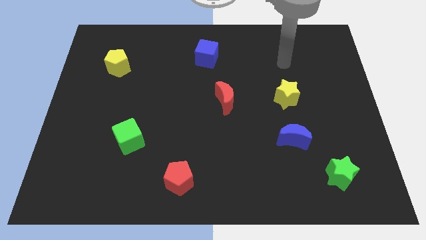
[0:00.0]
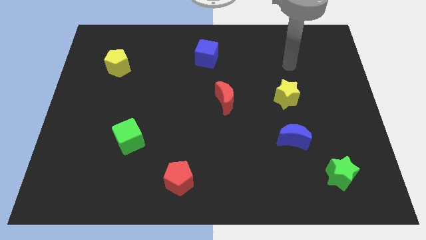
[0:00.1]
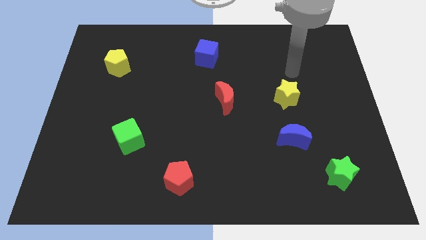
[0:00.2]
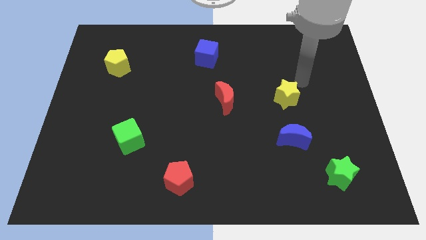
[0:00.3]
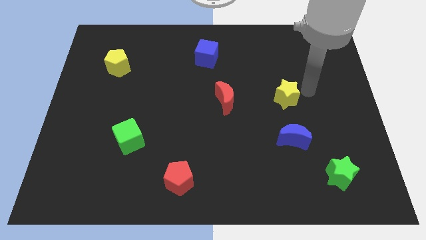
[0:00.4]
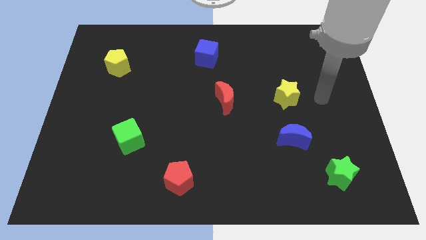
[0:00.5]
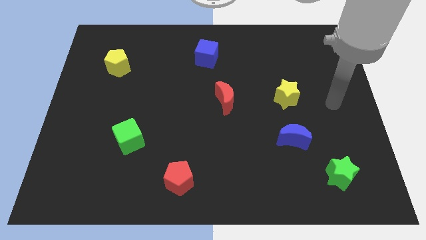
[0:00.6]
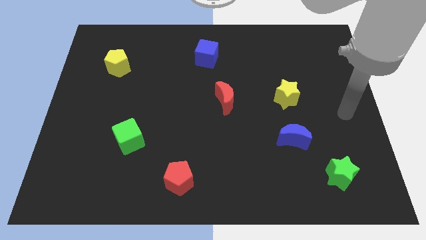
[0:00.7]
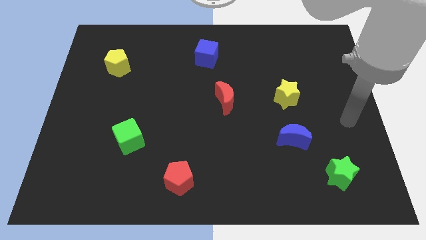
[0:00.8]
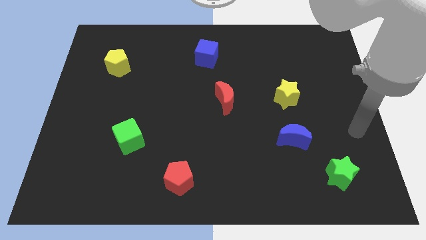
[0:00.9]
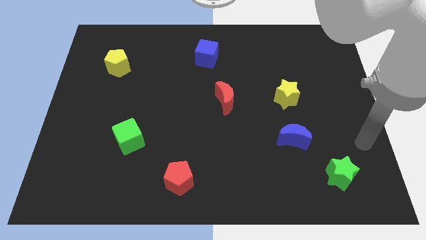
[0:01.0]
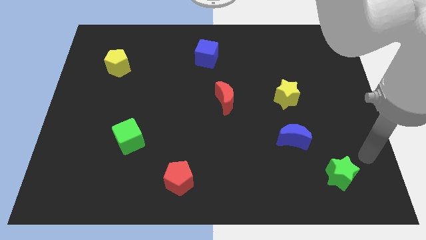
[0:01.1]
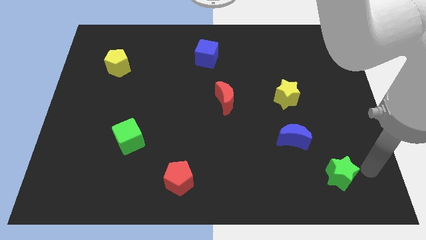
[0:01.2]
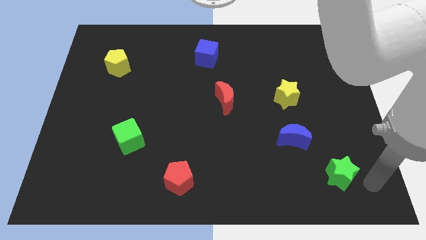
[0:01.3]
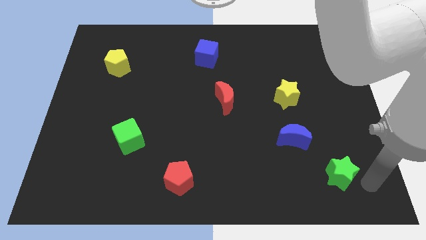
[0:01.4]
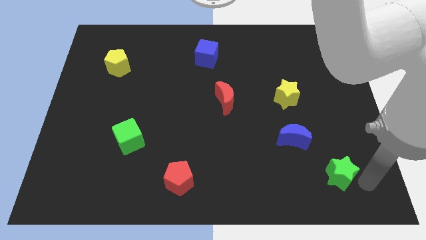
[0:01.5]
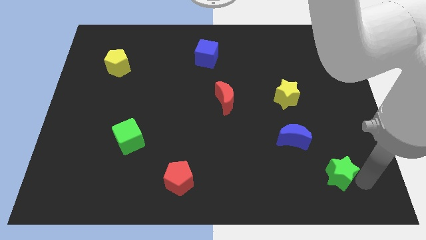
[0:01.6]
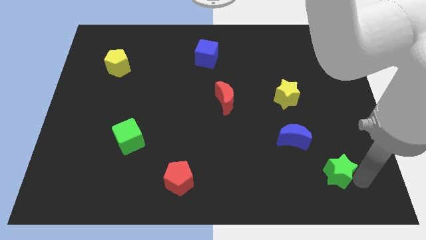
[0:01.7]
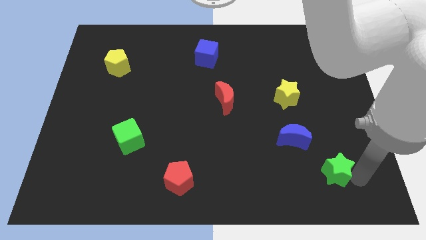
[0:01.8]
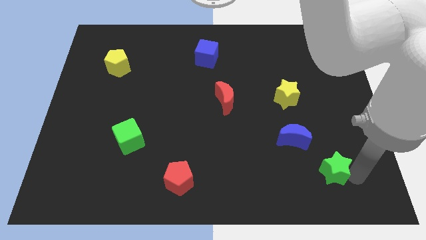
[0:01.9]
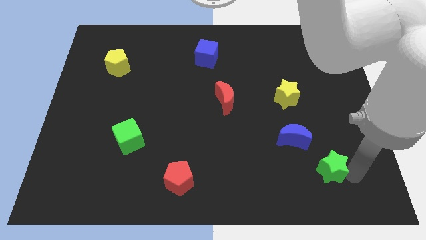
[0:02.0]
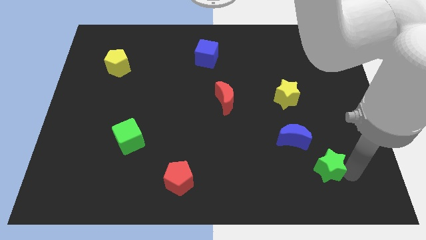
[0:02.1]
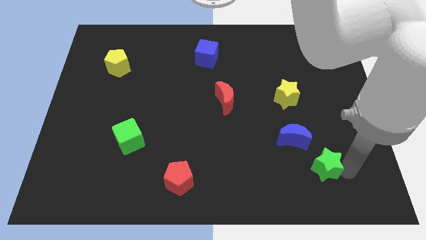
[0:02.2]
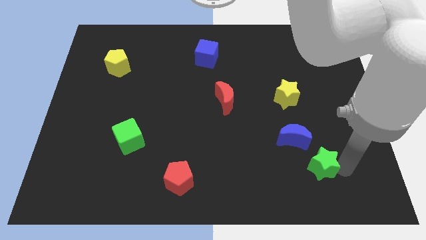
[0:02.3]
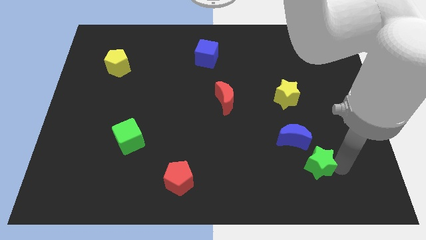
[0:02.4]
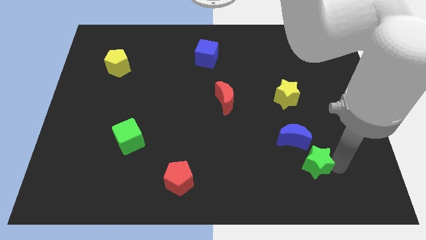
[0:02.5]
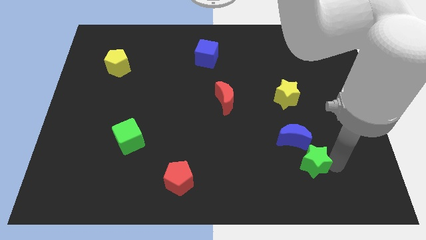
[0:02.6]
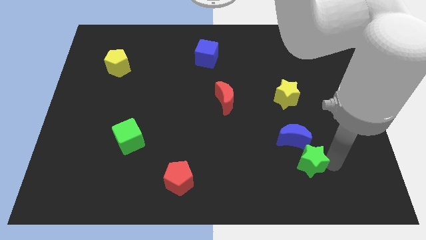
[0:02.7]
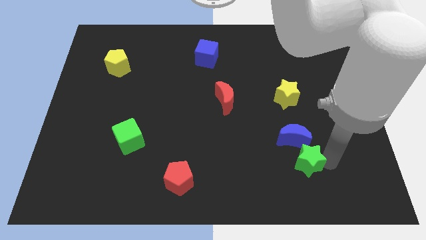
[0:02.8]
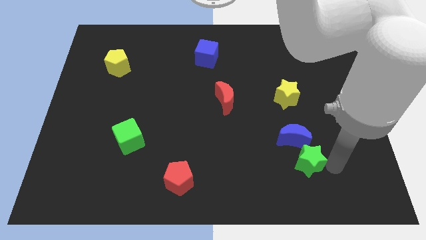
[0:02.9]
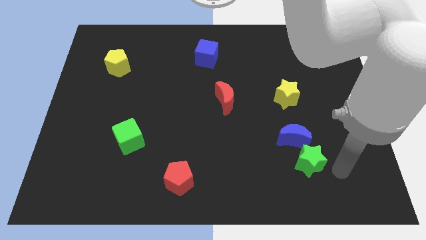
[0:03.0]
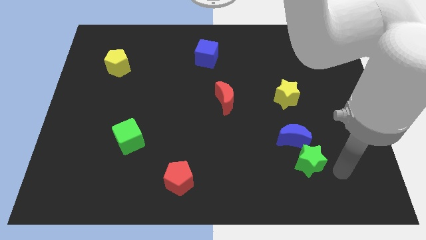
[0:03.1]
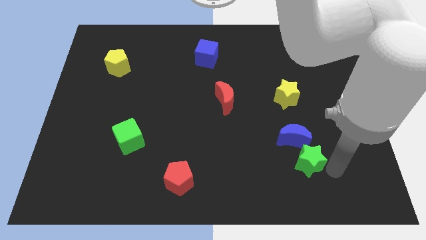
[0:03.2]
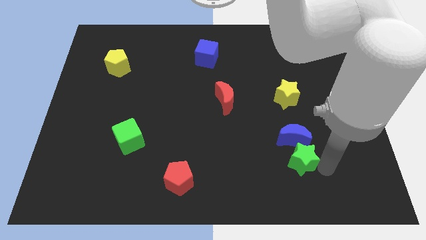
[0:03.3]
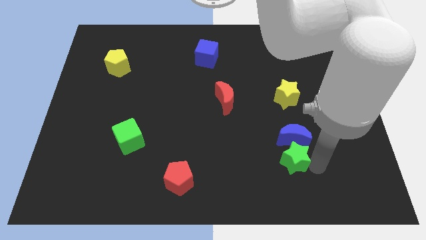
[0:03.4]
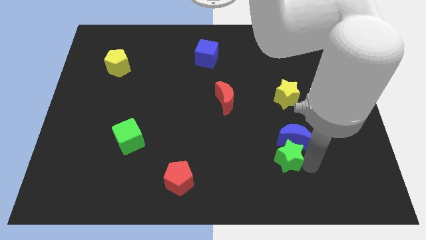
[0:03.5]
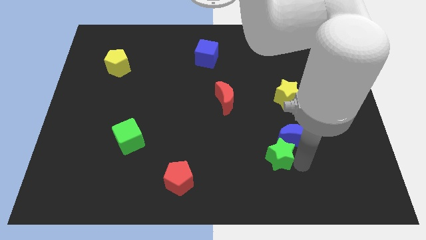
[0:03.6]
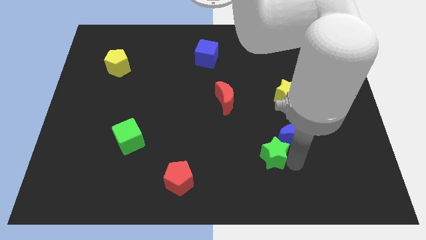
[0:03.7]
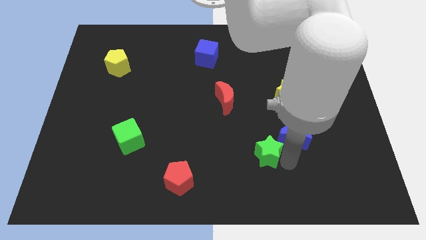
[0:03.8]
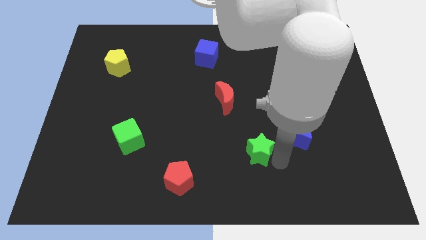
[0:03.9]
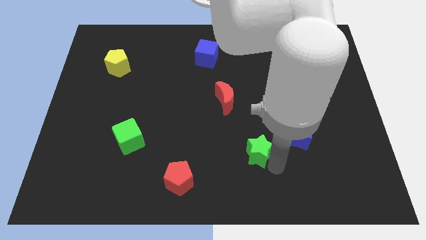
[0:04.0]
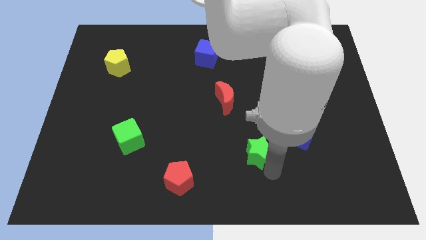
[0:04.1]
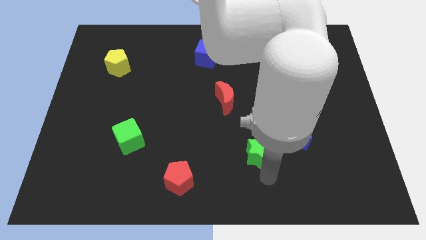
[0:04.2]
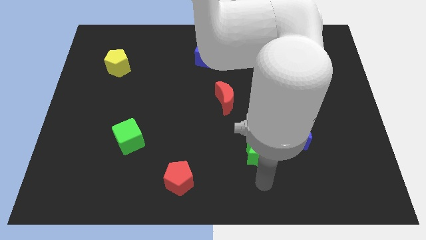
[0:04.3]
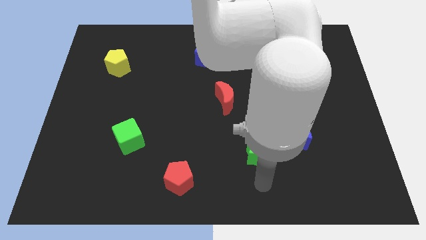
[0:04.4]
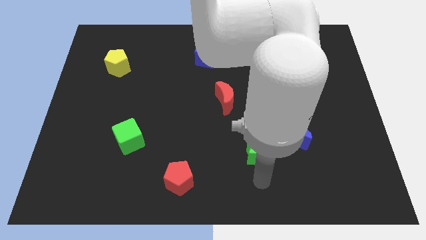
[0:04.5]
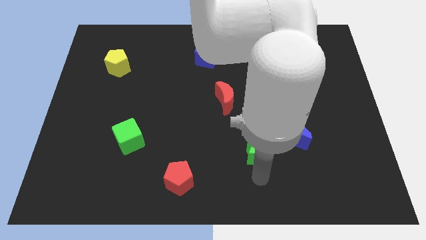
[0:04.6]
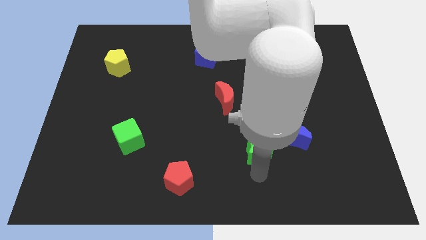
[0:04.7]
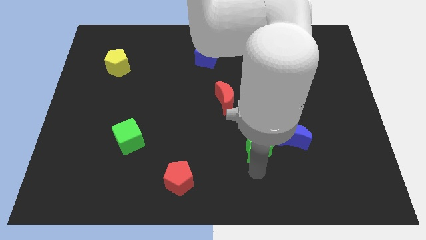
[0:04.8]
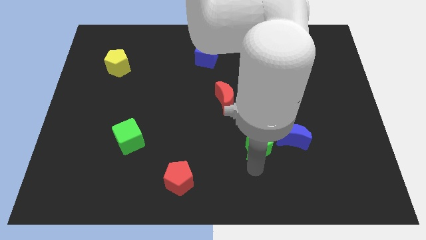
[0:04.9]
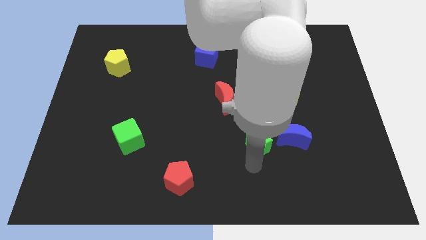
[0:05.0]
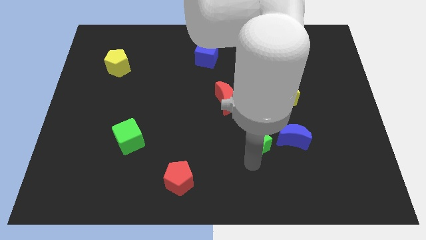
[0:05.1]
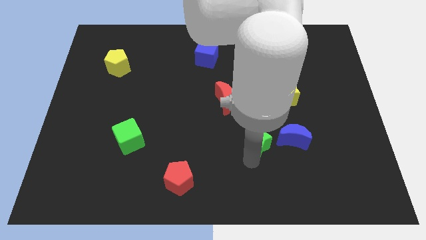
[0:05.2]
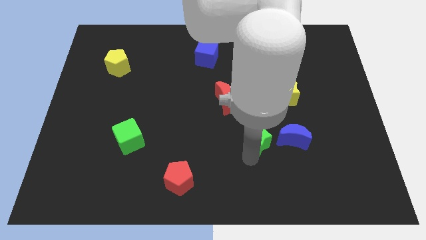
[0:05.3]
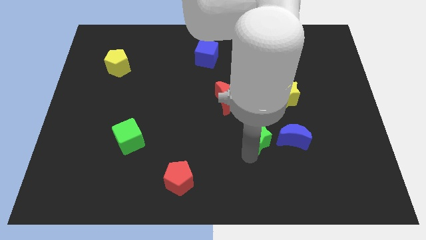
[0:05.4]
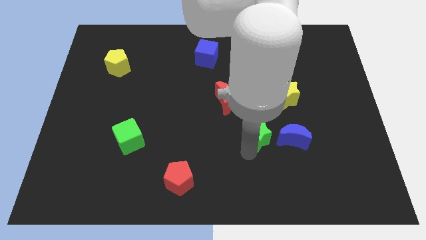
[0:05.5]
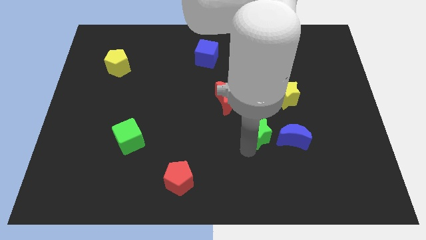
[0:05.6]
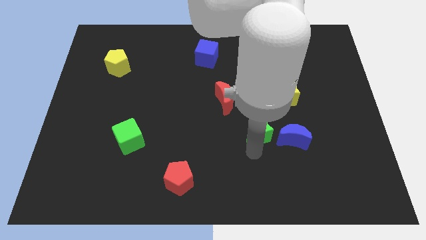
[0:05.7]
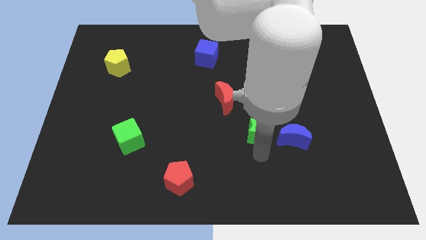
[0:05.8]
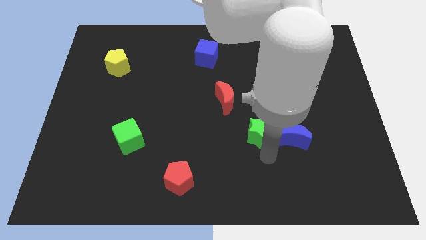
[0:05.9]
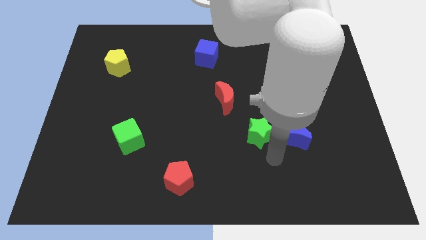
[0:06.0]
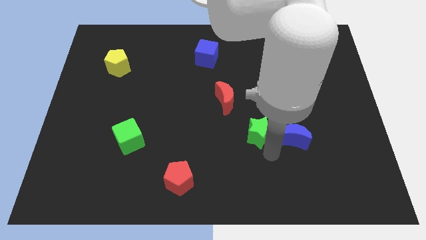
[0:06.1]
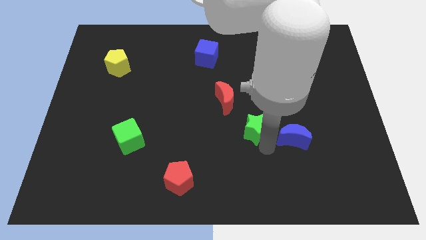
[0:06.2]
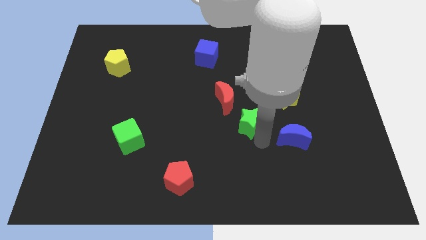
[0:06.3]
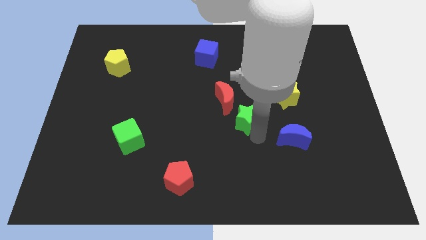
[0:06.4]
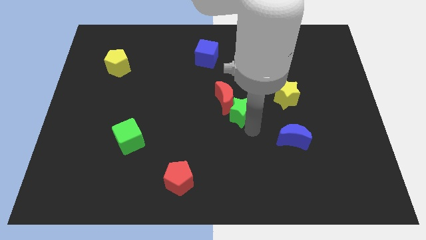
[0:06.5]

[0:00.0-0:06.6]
slide the green star to the red moon

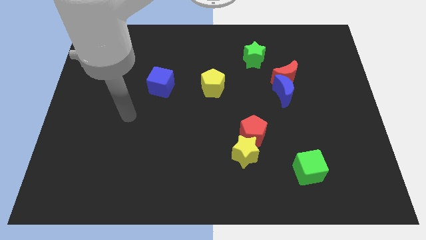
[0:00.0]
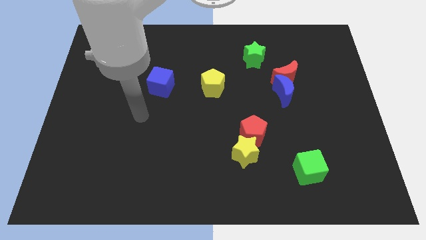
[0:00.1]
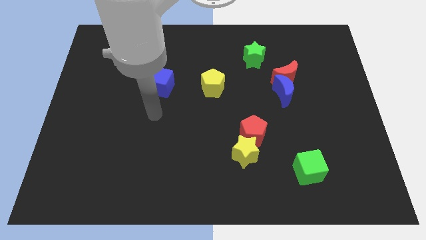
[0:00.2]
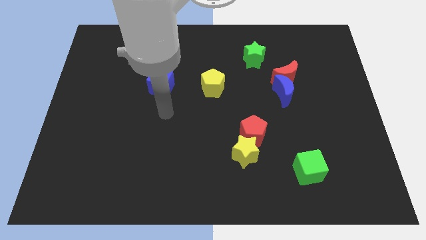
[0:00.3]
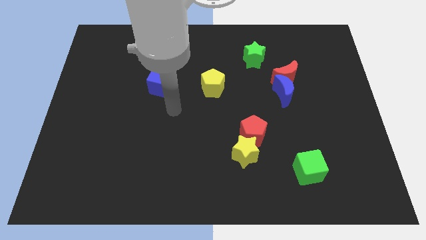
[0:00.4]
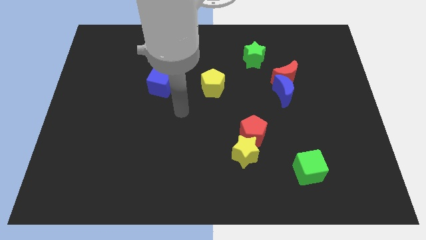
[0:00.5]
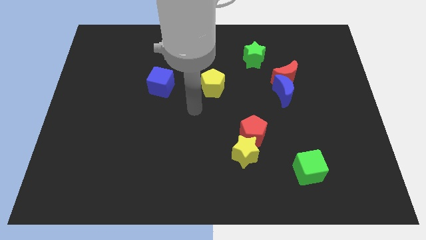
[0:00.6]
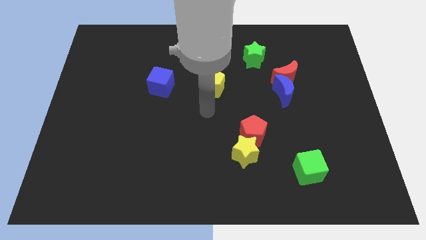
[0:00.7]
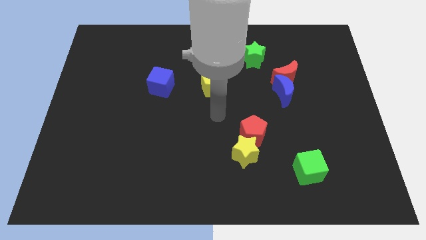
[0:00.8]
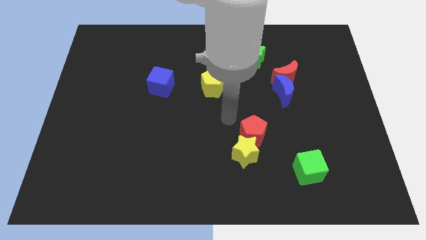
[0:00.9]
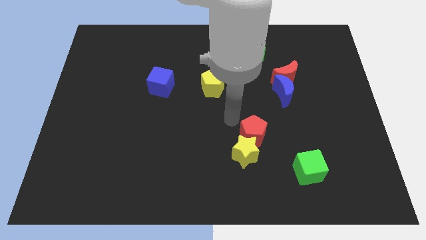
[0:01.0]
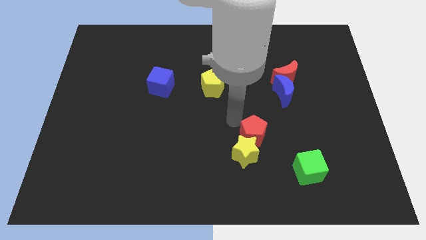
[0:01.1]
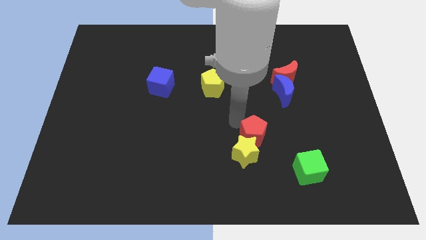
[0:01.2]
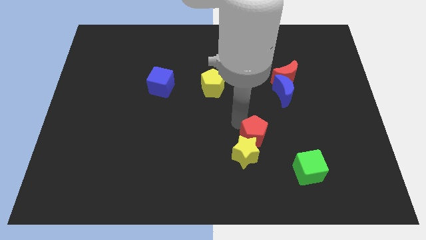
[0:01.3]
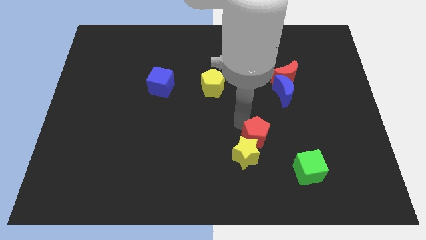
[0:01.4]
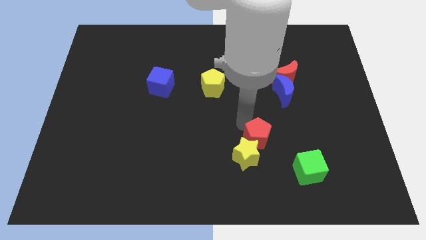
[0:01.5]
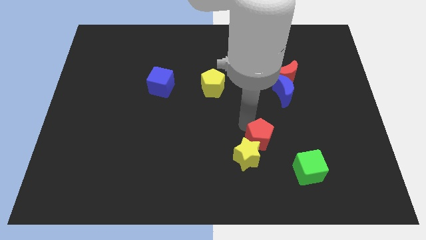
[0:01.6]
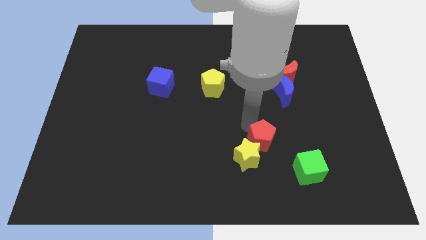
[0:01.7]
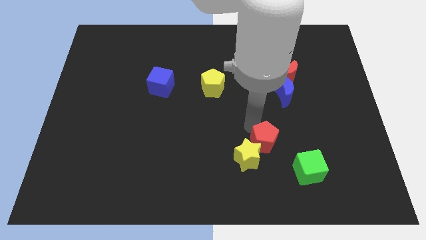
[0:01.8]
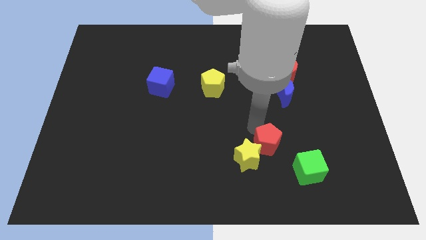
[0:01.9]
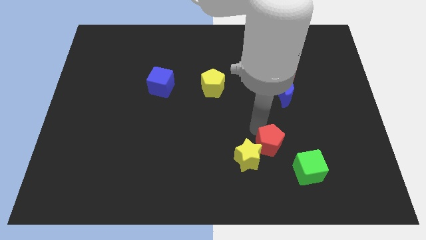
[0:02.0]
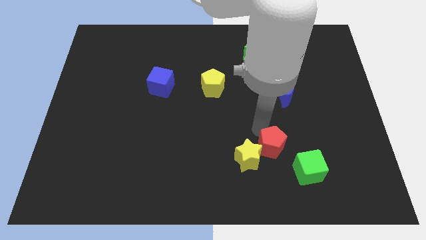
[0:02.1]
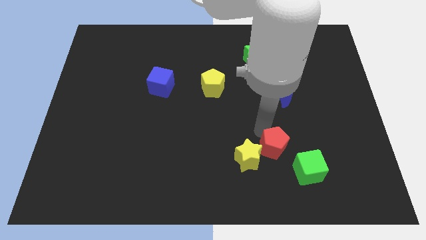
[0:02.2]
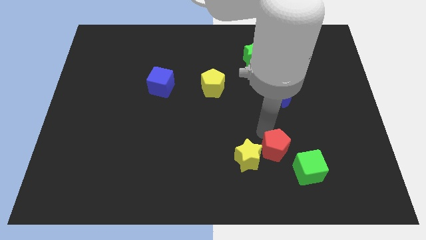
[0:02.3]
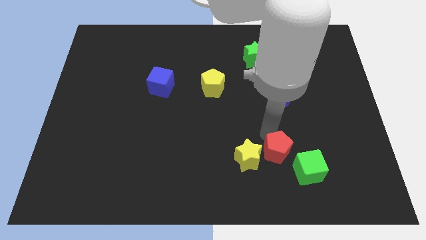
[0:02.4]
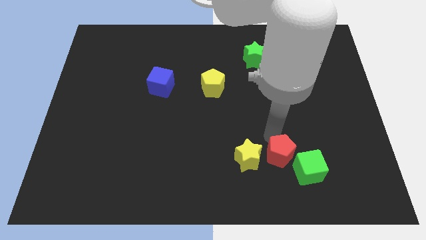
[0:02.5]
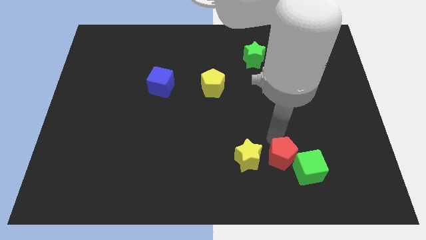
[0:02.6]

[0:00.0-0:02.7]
push the red pentagon close to the green cube
